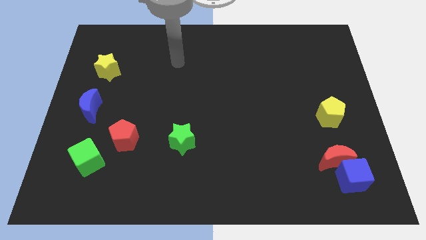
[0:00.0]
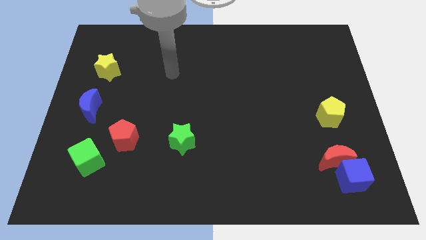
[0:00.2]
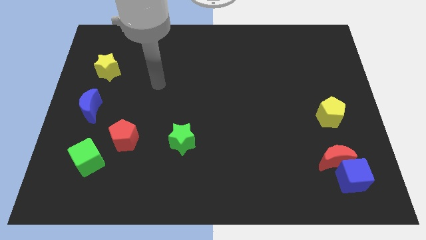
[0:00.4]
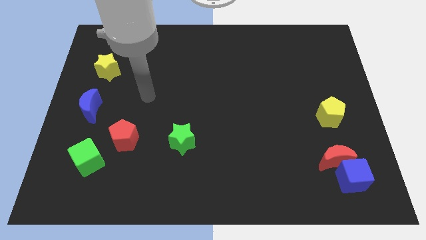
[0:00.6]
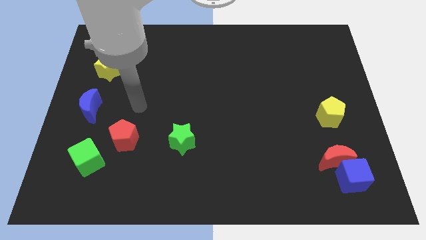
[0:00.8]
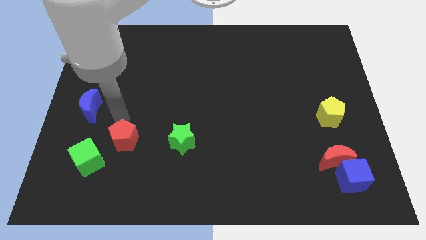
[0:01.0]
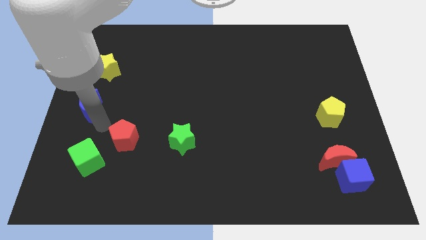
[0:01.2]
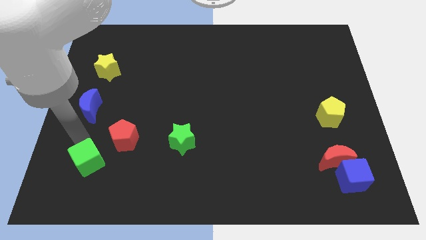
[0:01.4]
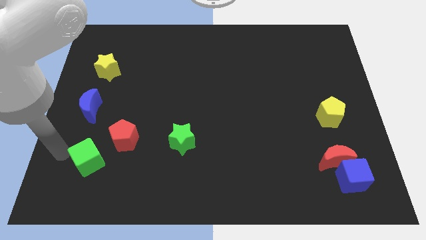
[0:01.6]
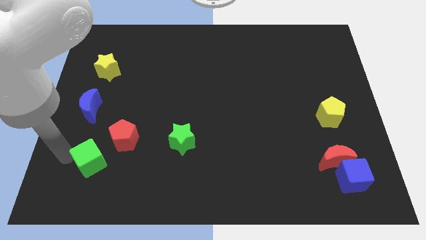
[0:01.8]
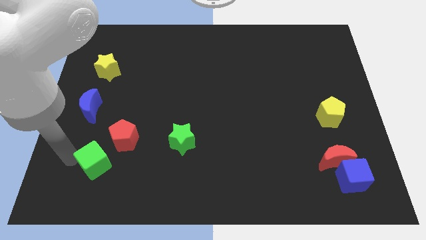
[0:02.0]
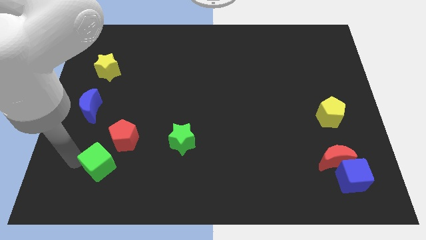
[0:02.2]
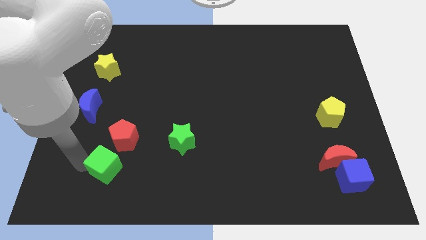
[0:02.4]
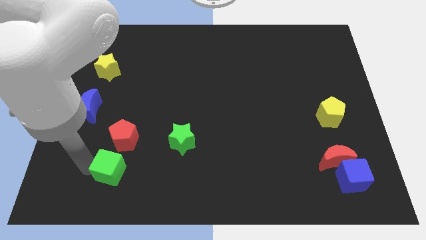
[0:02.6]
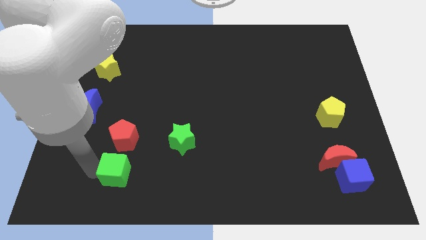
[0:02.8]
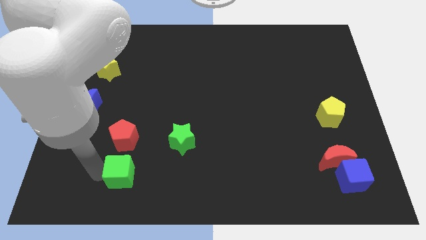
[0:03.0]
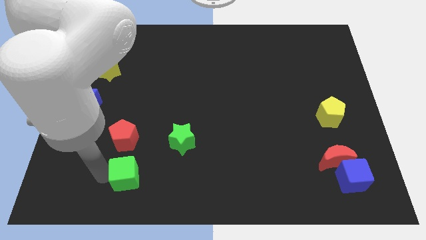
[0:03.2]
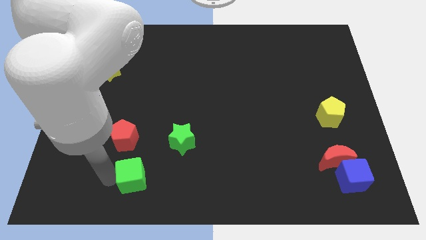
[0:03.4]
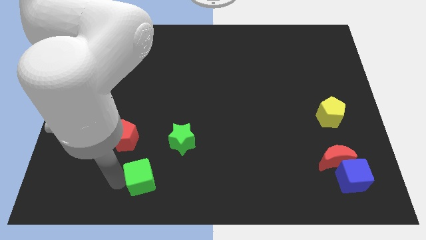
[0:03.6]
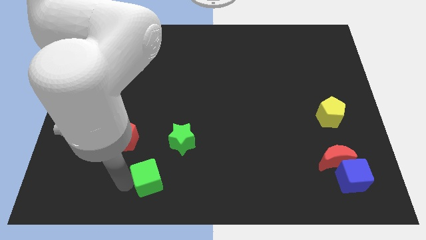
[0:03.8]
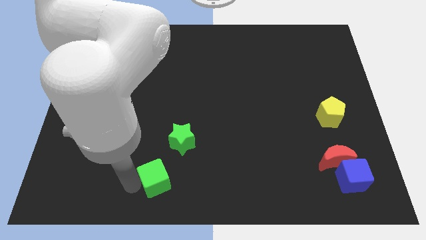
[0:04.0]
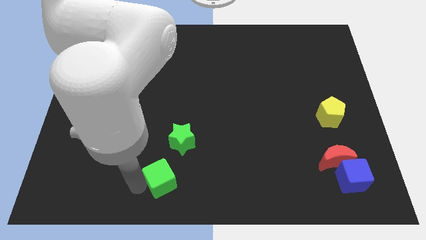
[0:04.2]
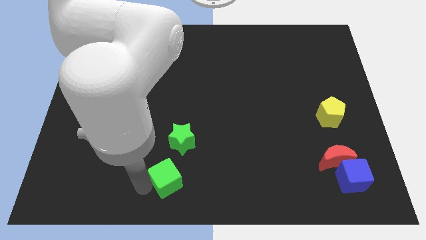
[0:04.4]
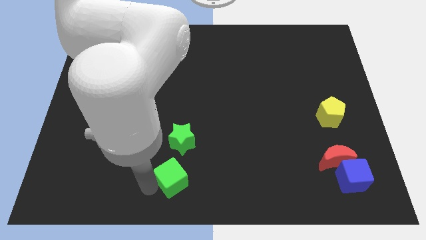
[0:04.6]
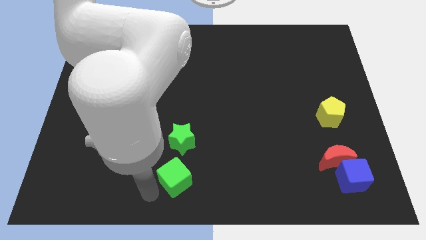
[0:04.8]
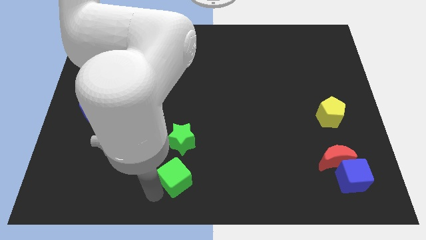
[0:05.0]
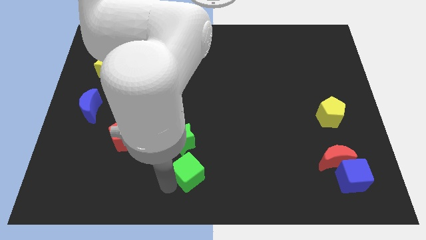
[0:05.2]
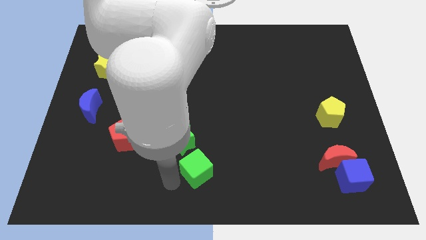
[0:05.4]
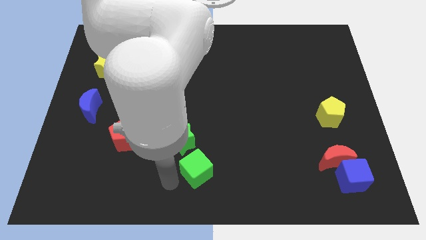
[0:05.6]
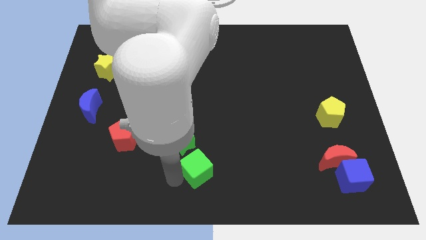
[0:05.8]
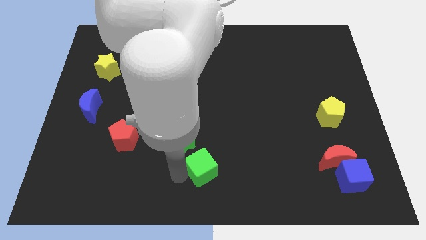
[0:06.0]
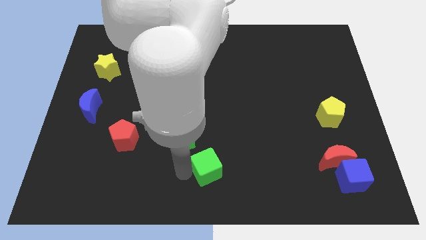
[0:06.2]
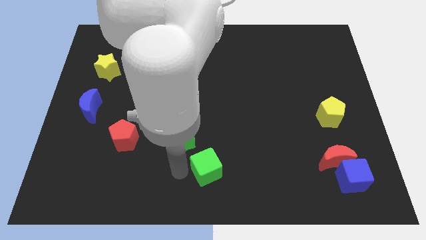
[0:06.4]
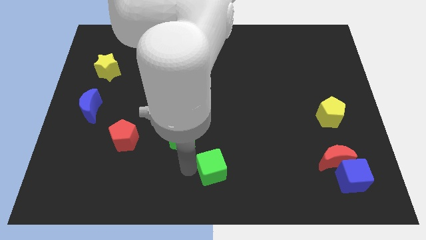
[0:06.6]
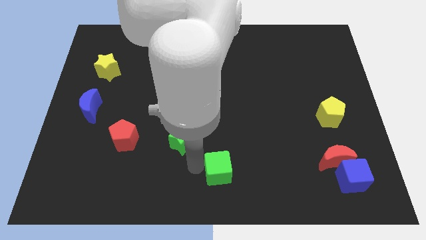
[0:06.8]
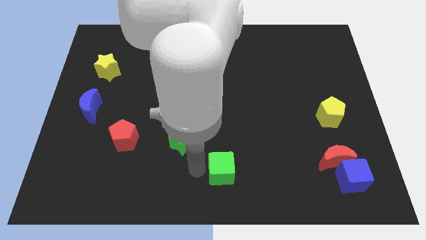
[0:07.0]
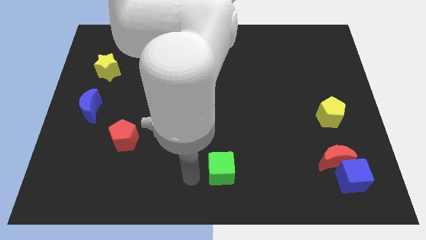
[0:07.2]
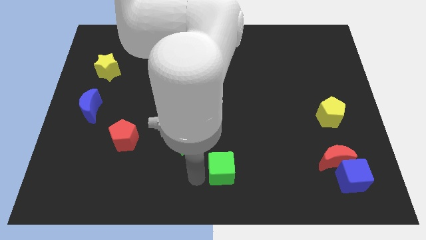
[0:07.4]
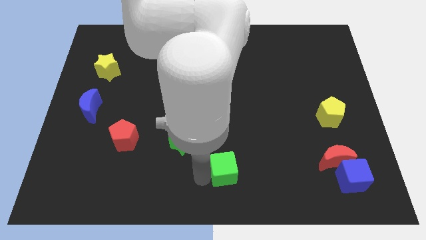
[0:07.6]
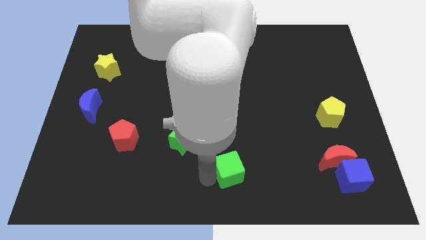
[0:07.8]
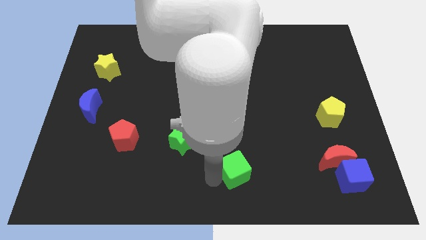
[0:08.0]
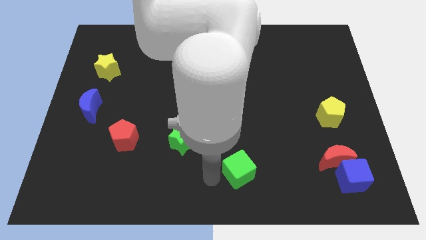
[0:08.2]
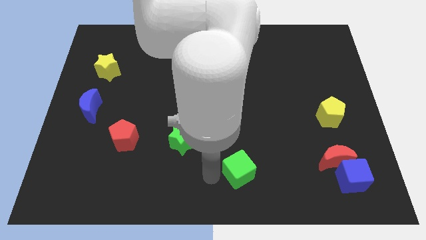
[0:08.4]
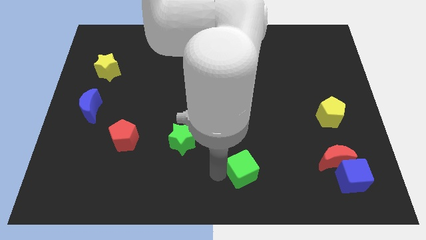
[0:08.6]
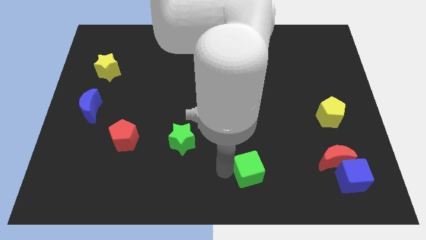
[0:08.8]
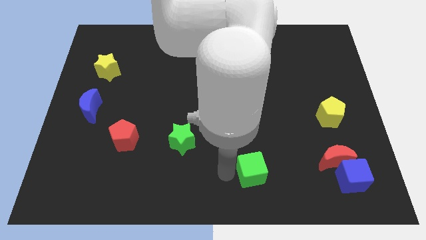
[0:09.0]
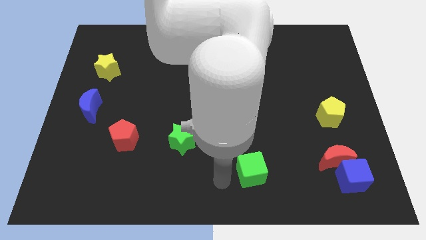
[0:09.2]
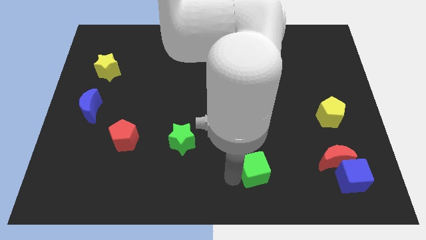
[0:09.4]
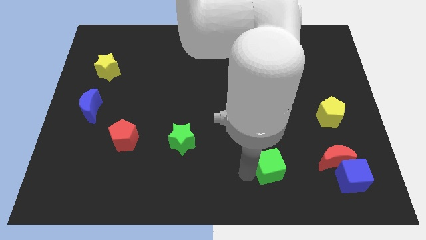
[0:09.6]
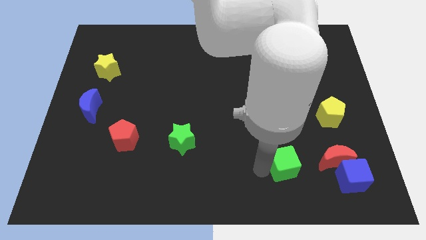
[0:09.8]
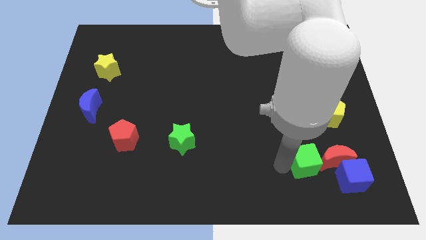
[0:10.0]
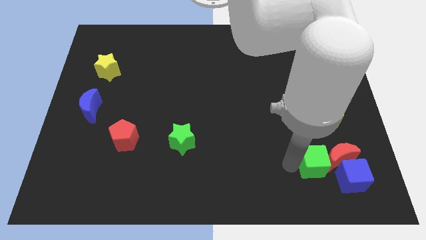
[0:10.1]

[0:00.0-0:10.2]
slide the green cube next to the red moon

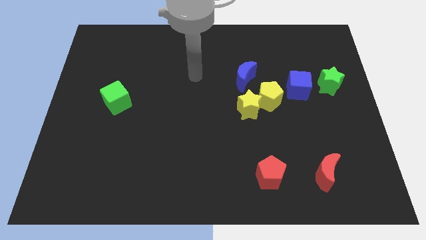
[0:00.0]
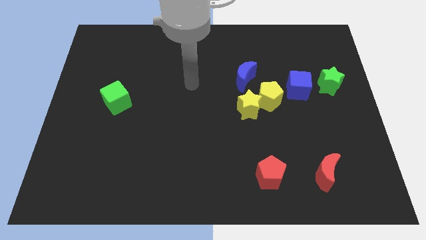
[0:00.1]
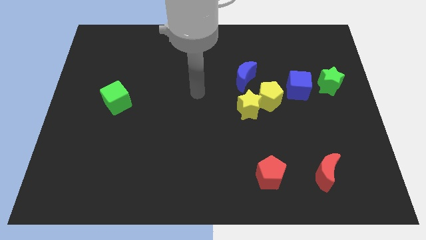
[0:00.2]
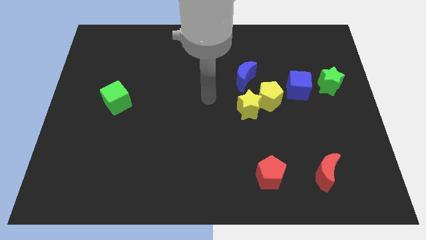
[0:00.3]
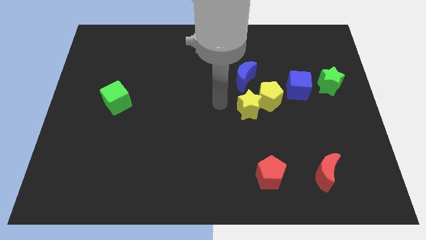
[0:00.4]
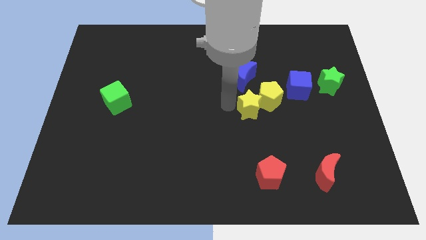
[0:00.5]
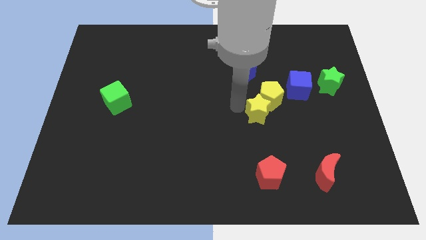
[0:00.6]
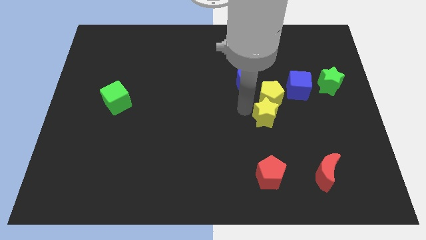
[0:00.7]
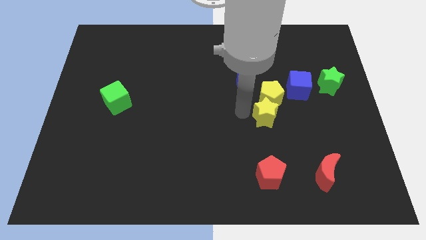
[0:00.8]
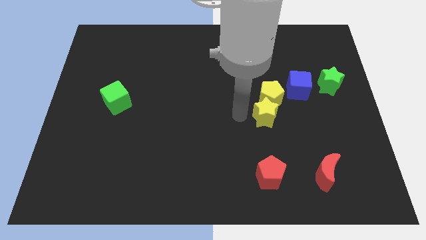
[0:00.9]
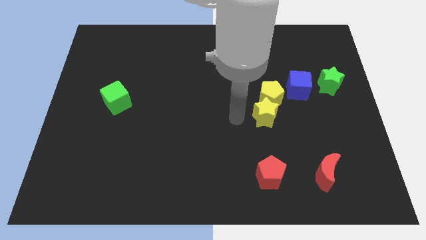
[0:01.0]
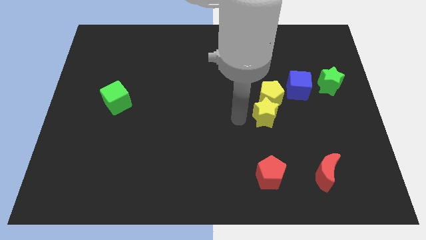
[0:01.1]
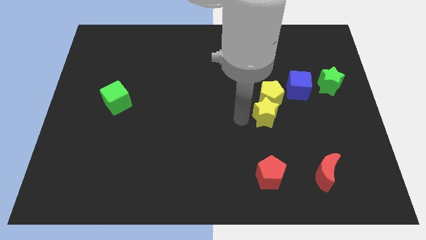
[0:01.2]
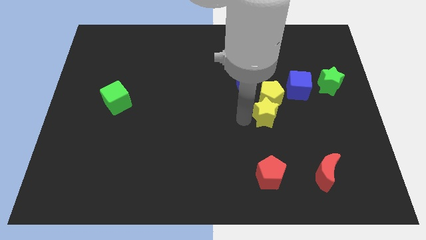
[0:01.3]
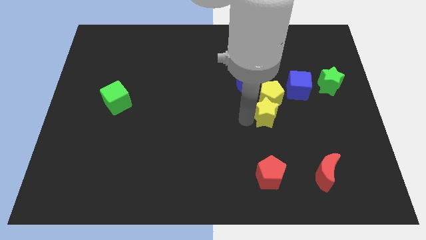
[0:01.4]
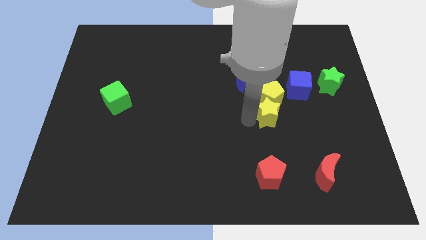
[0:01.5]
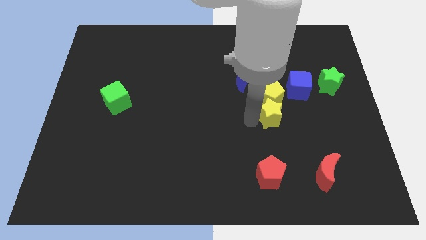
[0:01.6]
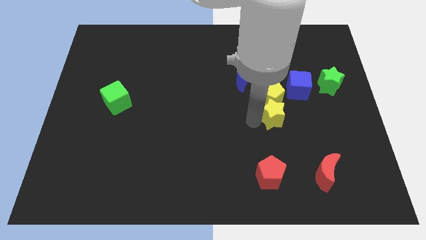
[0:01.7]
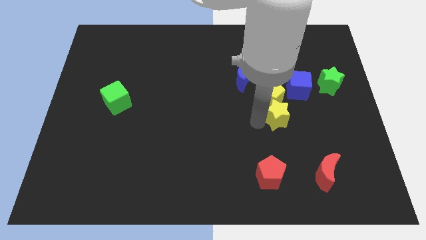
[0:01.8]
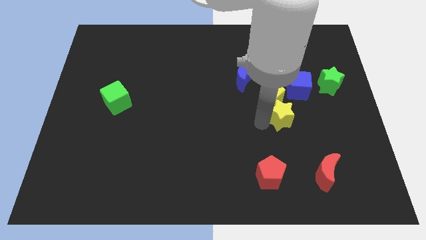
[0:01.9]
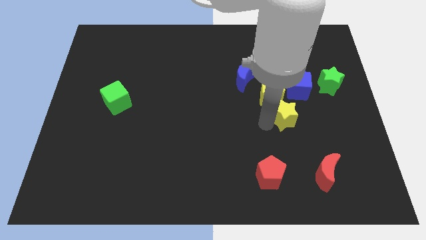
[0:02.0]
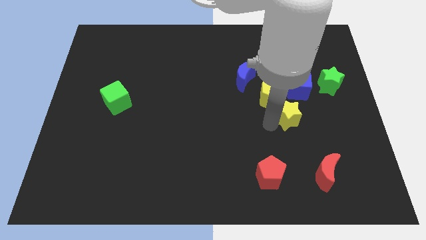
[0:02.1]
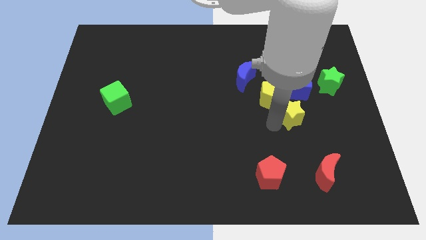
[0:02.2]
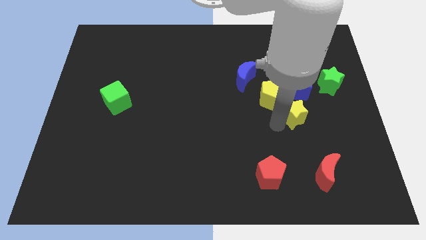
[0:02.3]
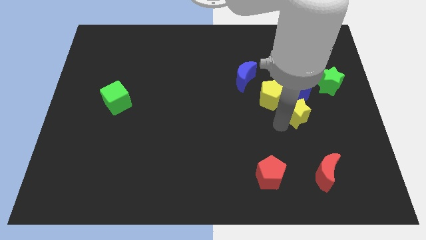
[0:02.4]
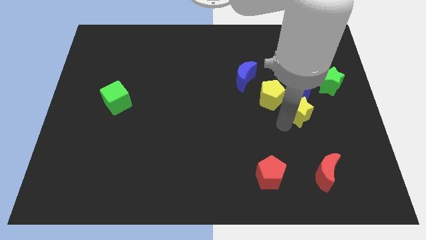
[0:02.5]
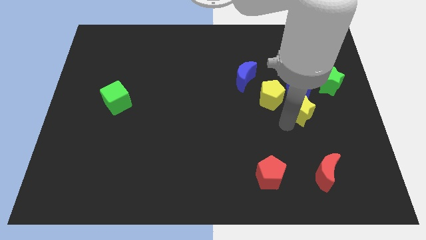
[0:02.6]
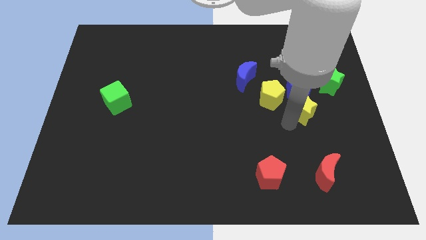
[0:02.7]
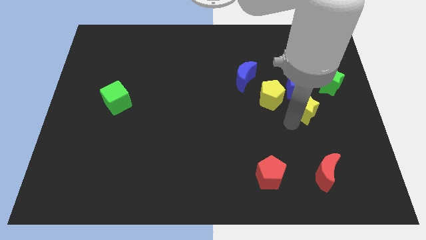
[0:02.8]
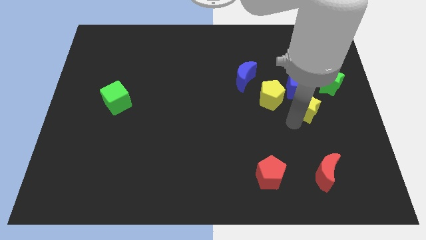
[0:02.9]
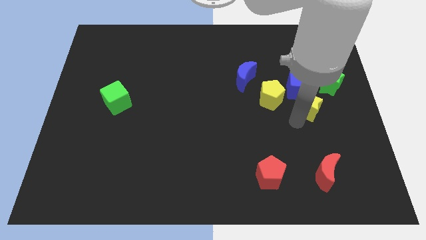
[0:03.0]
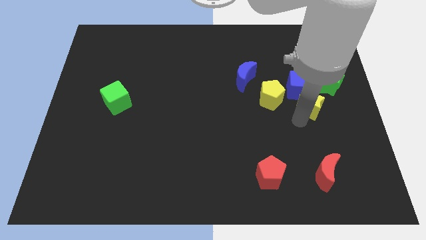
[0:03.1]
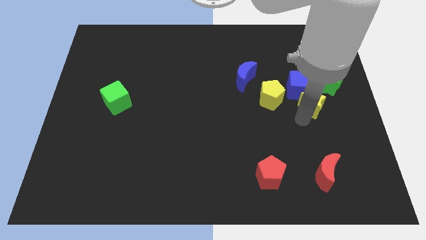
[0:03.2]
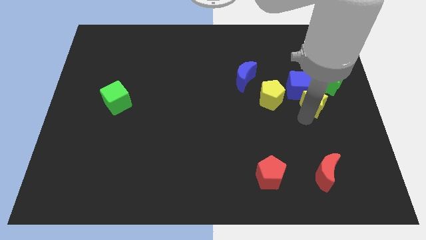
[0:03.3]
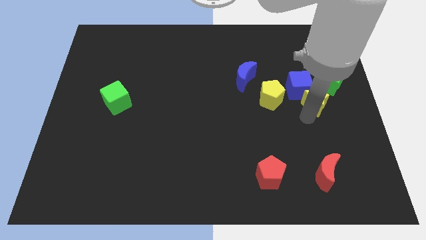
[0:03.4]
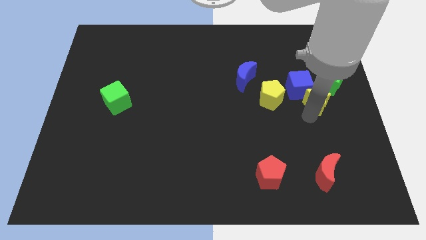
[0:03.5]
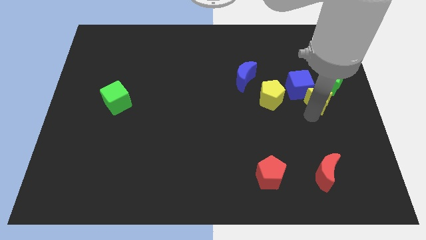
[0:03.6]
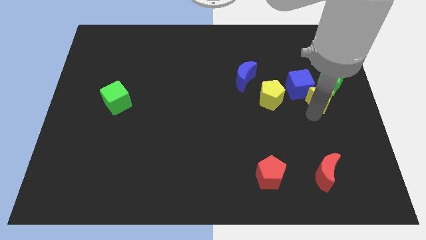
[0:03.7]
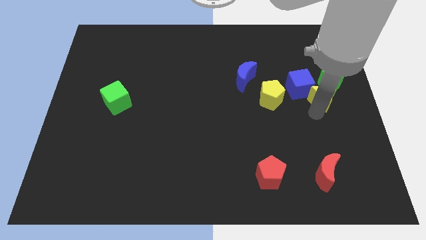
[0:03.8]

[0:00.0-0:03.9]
move the yellow star close to the green star
